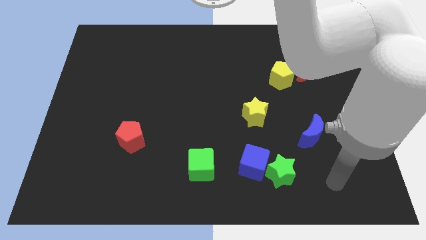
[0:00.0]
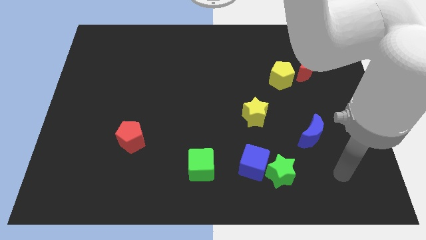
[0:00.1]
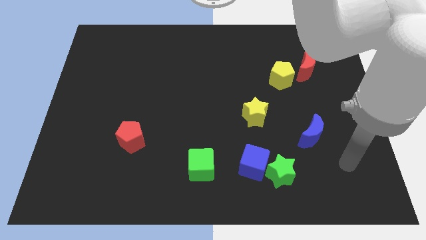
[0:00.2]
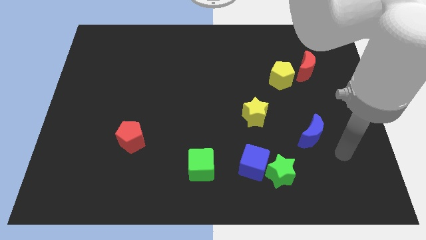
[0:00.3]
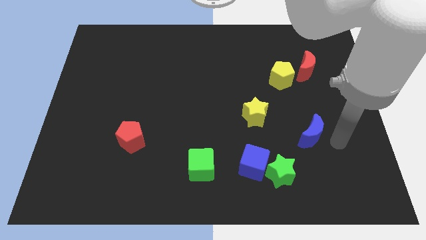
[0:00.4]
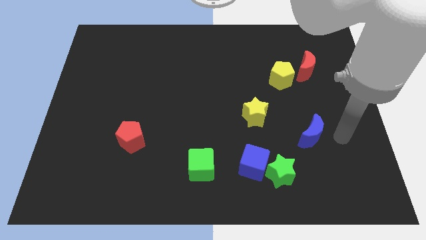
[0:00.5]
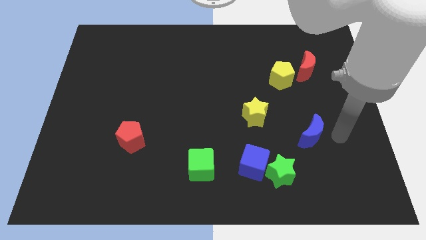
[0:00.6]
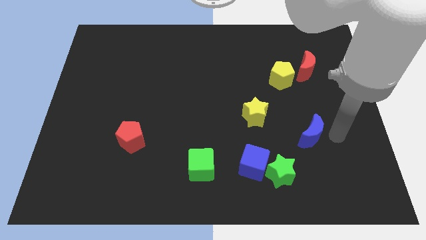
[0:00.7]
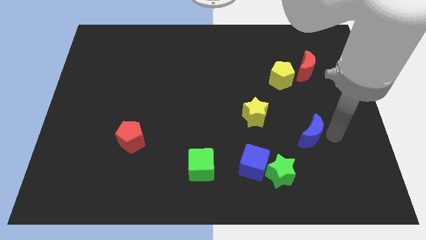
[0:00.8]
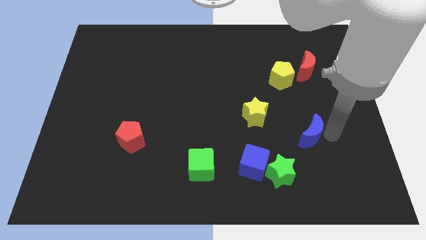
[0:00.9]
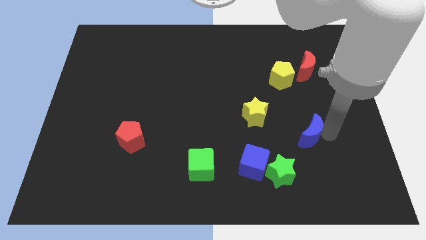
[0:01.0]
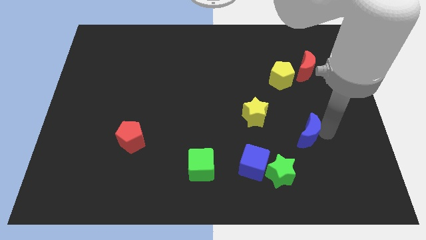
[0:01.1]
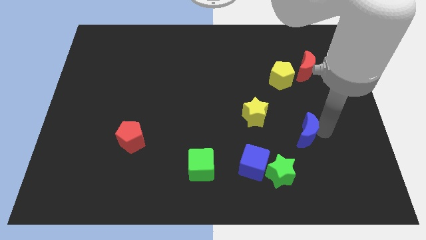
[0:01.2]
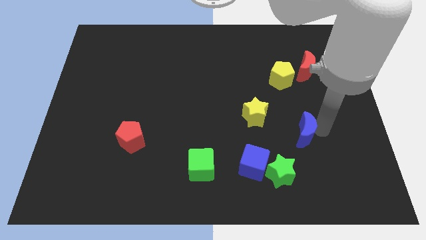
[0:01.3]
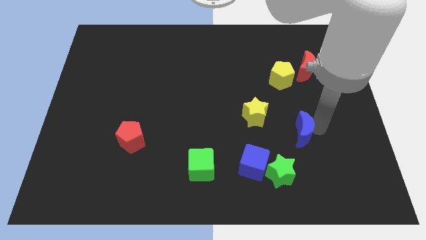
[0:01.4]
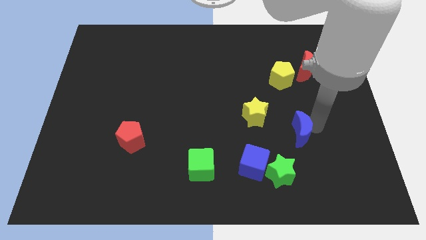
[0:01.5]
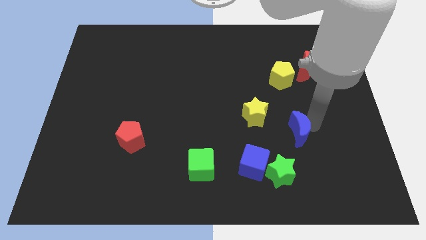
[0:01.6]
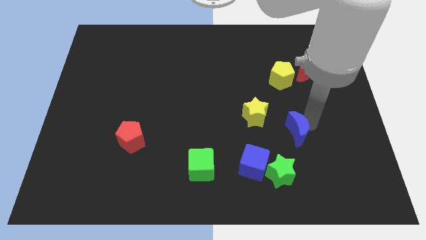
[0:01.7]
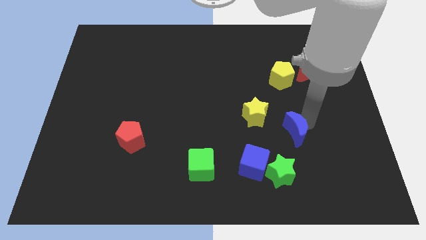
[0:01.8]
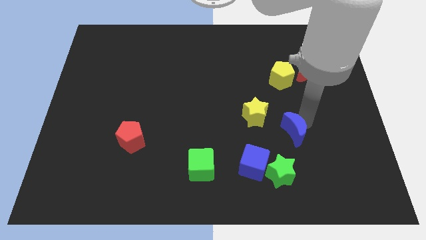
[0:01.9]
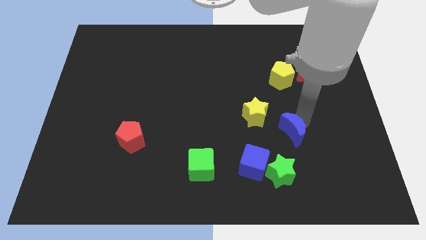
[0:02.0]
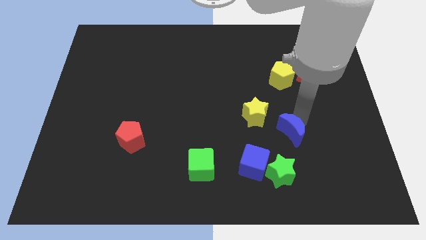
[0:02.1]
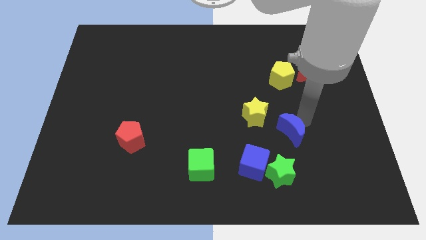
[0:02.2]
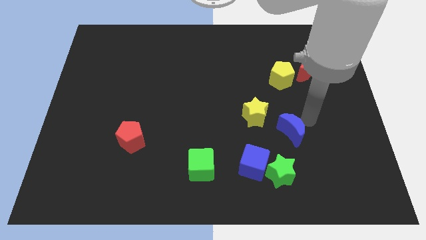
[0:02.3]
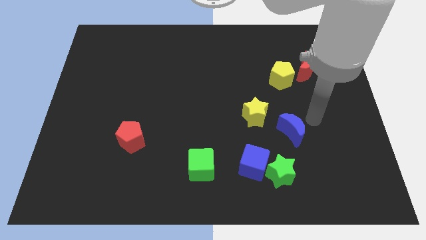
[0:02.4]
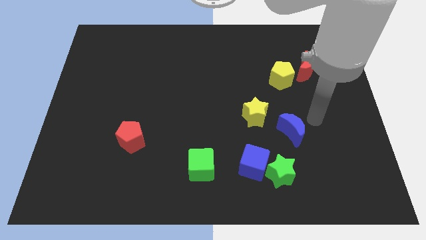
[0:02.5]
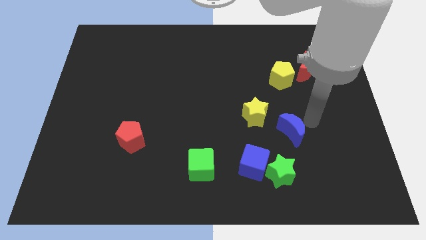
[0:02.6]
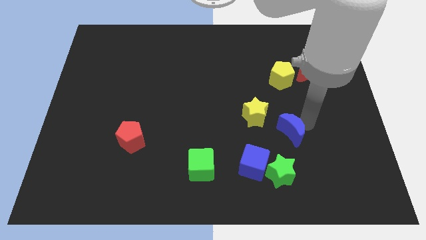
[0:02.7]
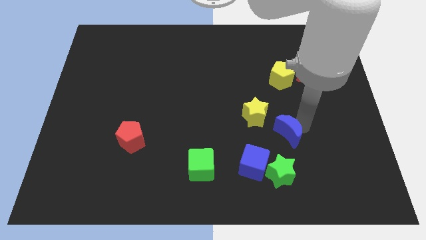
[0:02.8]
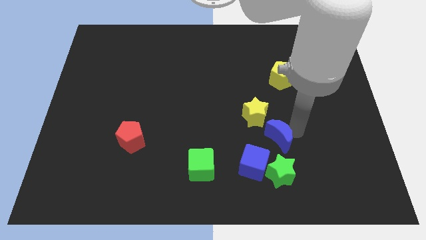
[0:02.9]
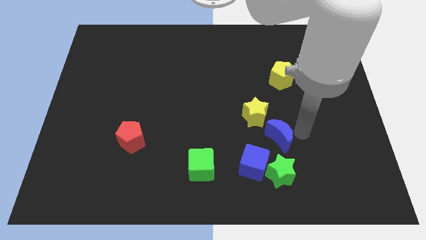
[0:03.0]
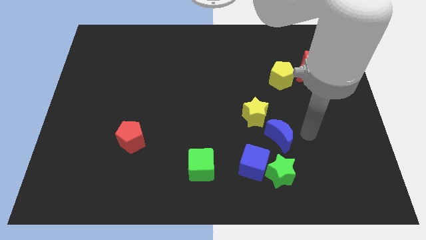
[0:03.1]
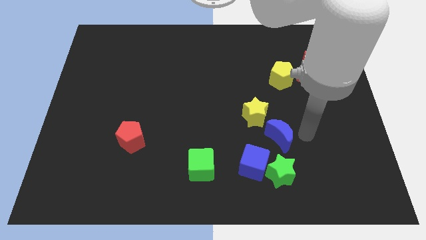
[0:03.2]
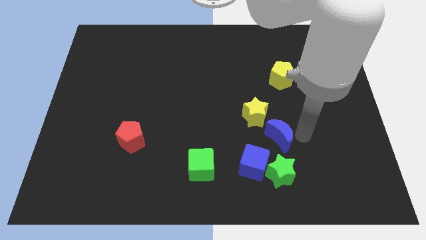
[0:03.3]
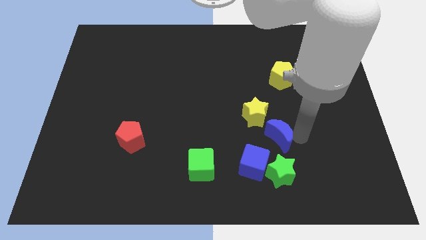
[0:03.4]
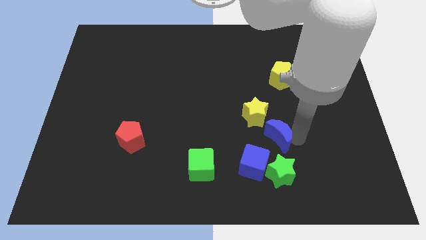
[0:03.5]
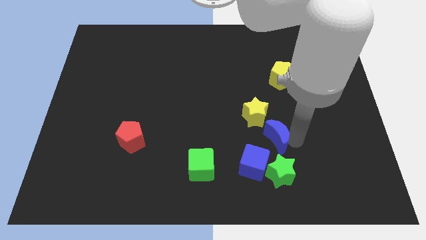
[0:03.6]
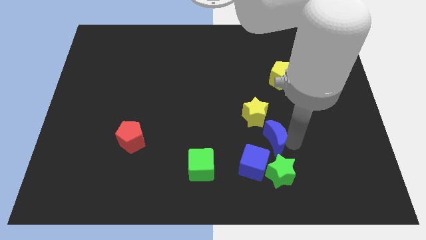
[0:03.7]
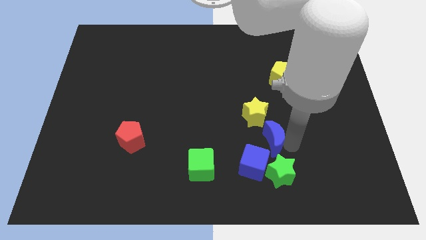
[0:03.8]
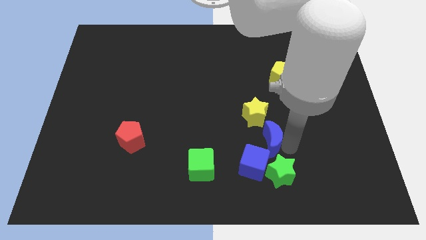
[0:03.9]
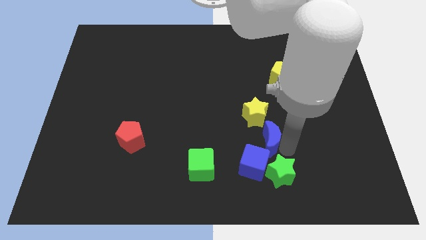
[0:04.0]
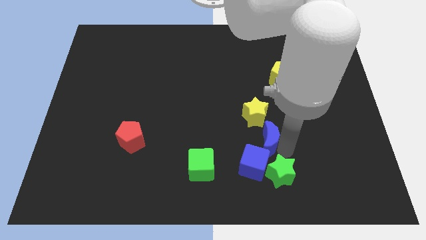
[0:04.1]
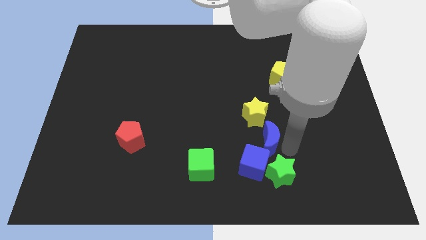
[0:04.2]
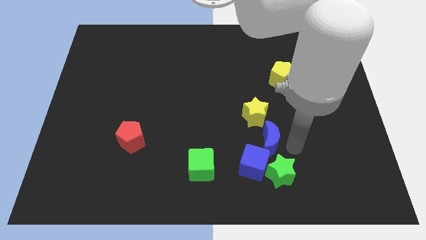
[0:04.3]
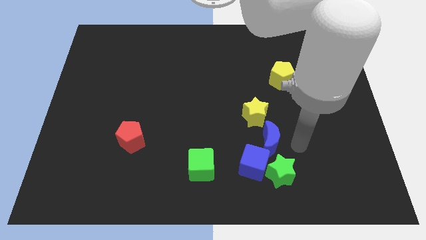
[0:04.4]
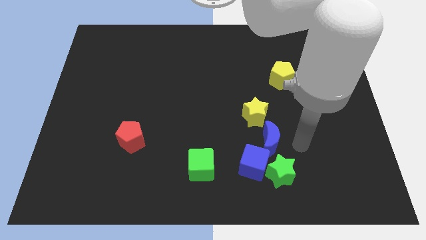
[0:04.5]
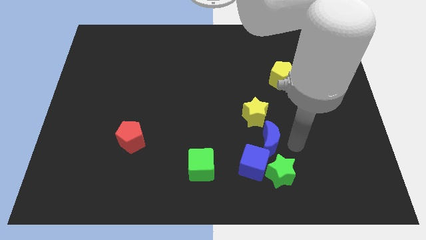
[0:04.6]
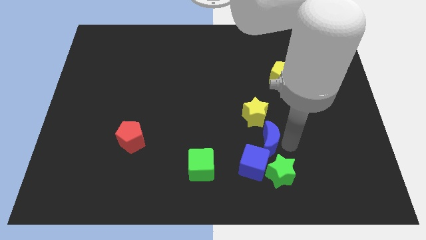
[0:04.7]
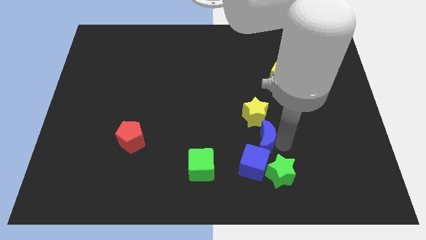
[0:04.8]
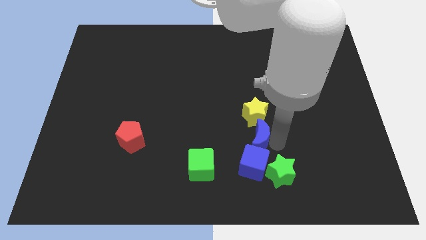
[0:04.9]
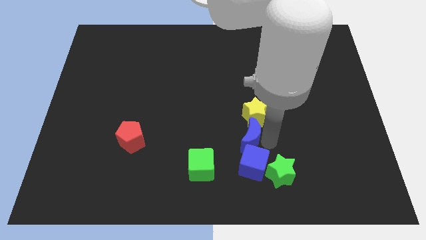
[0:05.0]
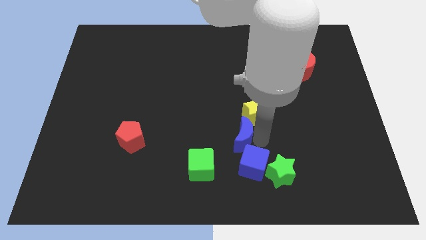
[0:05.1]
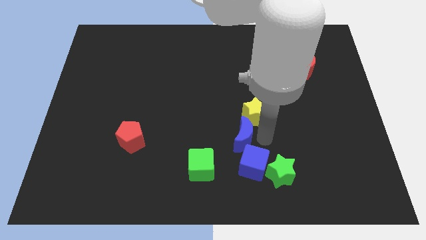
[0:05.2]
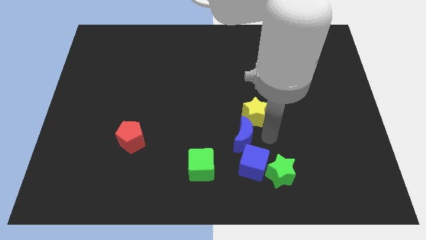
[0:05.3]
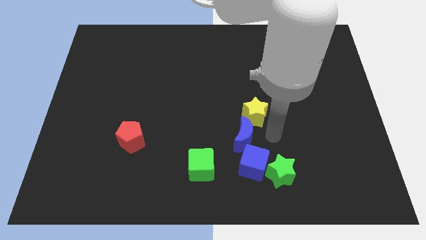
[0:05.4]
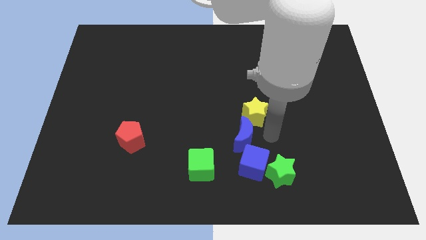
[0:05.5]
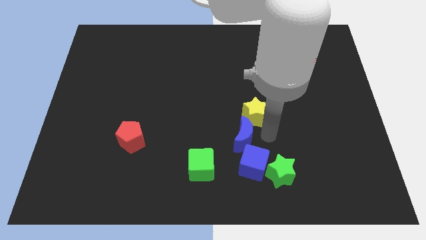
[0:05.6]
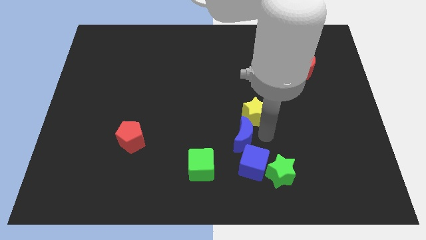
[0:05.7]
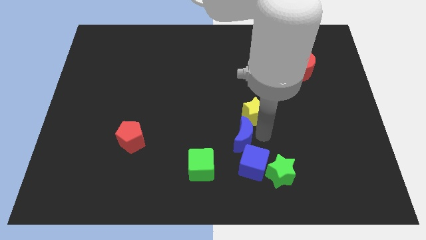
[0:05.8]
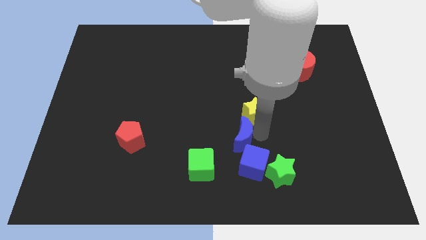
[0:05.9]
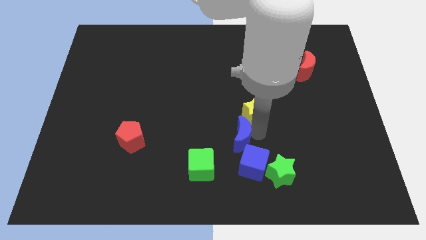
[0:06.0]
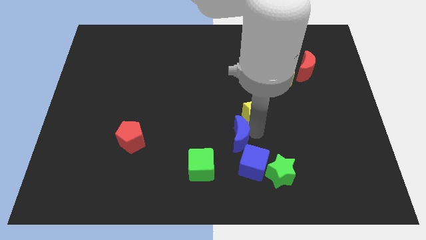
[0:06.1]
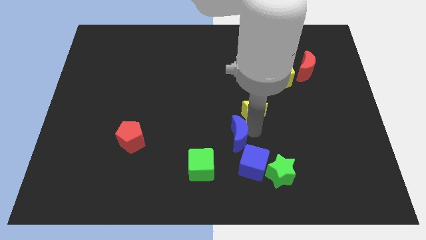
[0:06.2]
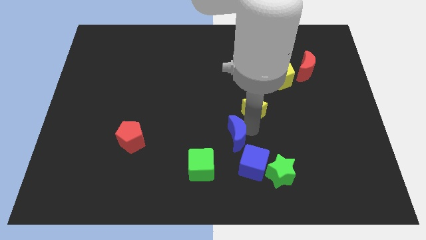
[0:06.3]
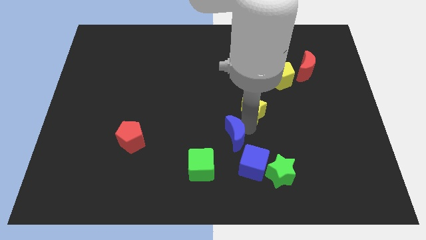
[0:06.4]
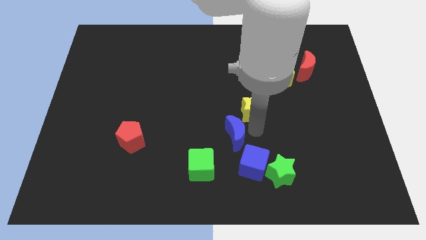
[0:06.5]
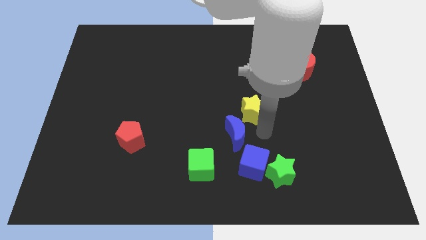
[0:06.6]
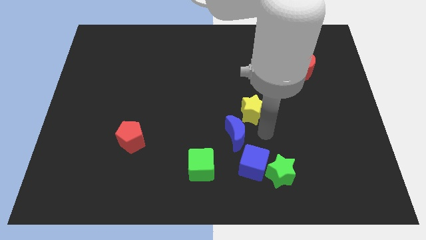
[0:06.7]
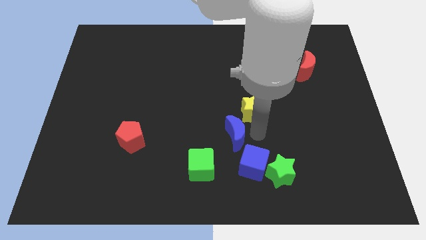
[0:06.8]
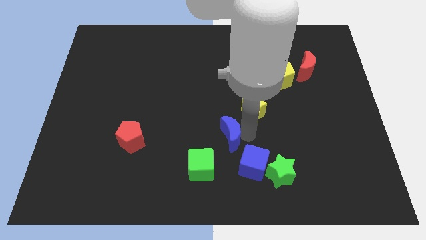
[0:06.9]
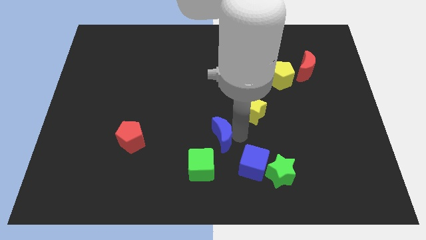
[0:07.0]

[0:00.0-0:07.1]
slide the blue moon left

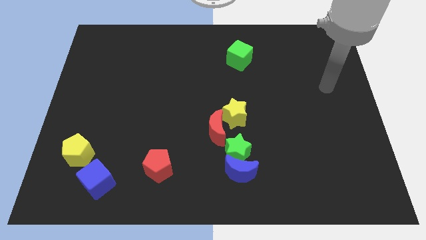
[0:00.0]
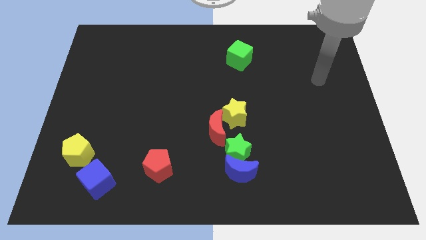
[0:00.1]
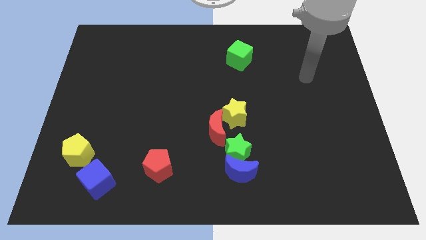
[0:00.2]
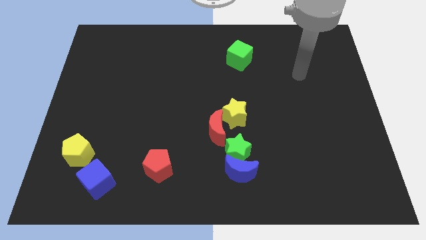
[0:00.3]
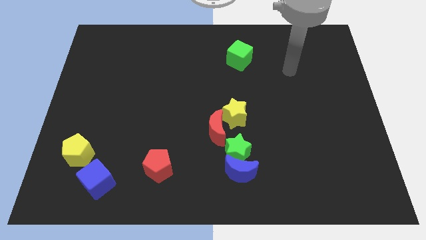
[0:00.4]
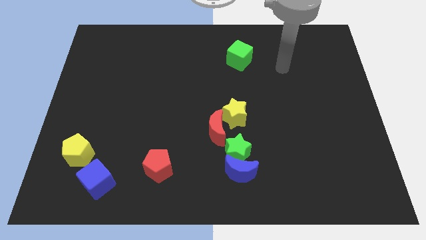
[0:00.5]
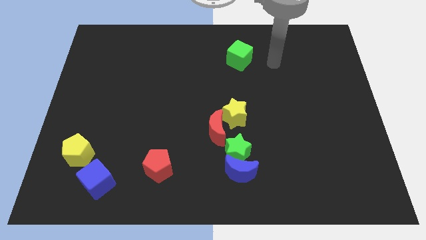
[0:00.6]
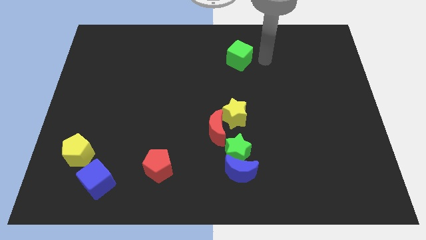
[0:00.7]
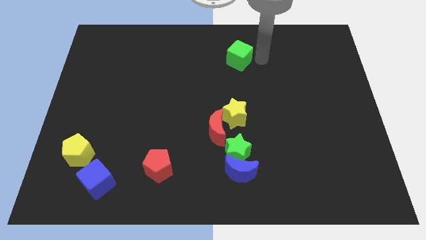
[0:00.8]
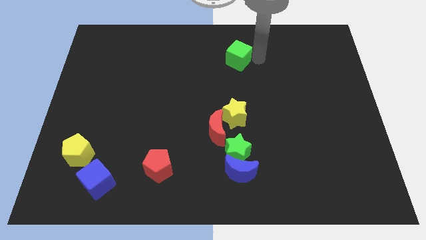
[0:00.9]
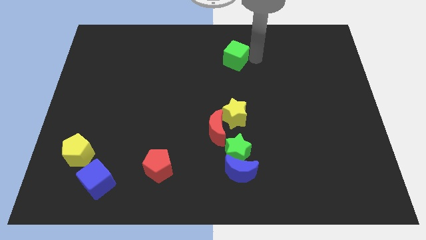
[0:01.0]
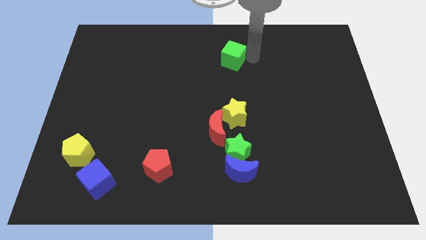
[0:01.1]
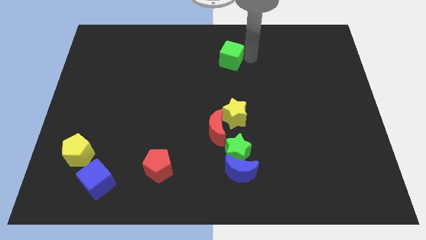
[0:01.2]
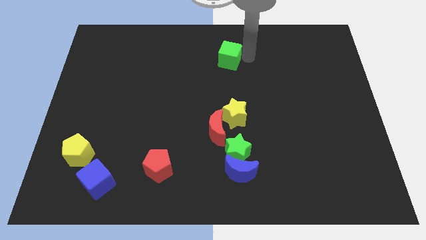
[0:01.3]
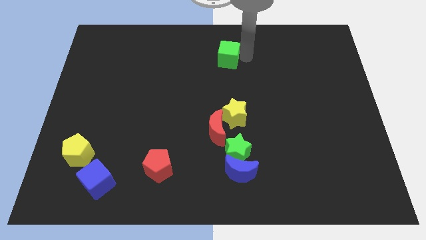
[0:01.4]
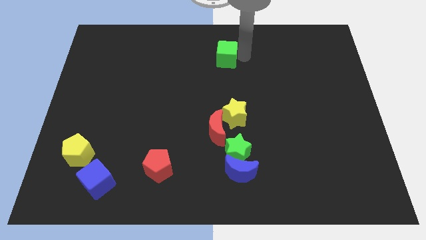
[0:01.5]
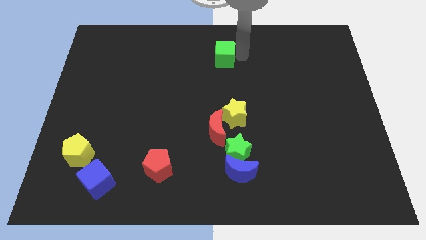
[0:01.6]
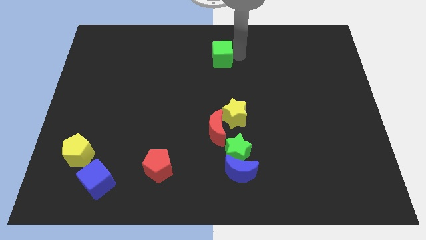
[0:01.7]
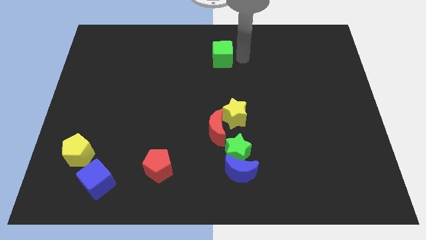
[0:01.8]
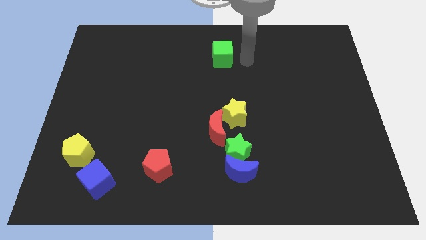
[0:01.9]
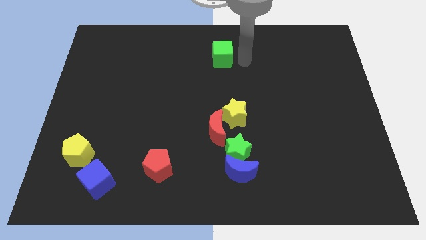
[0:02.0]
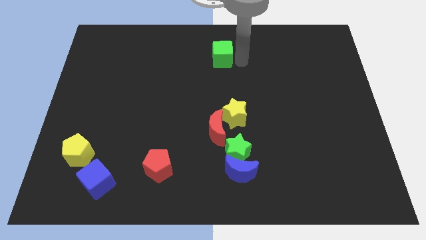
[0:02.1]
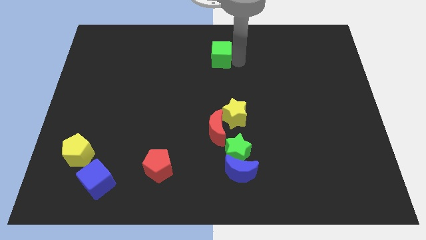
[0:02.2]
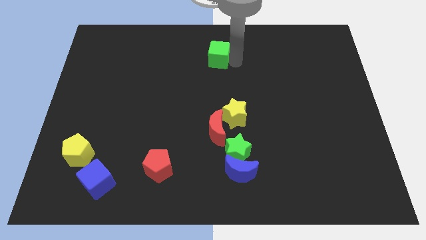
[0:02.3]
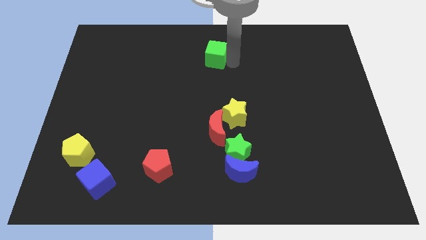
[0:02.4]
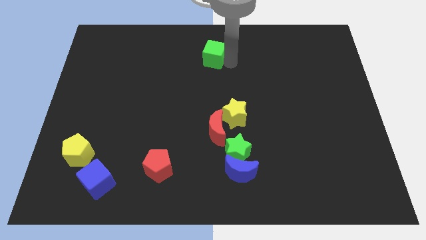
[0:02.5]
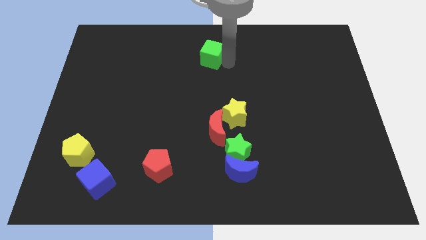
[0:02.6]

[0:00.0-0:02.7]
push the green cube left a little
